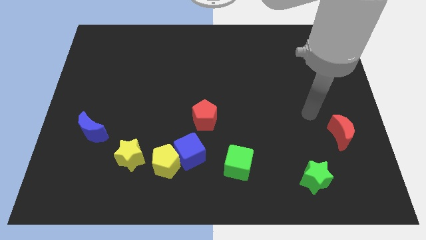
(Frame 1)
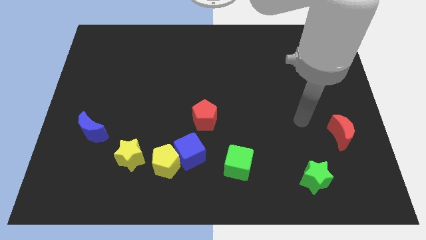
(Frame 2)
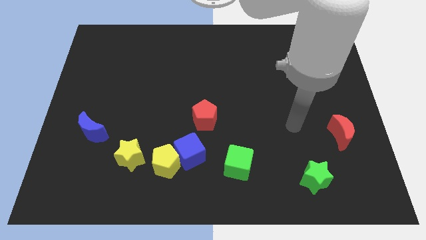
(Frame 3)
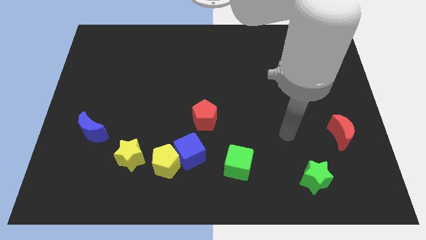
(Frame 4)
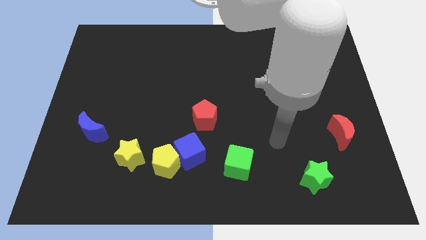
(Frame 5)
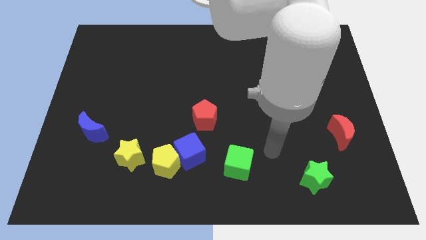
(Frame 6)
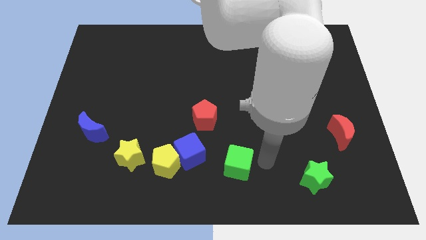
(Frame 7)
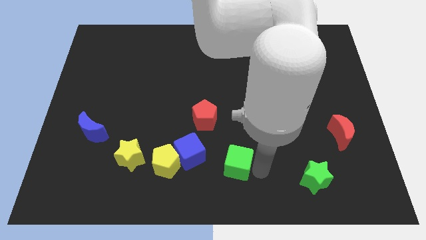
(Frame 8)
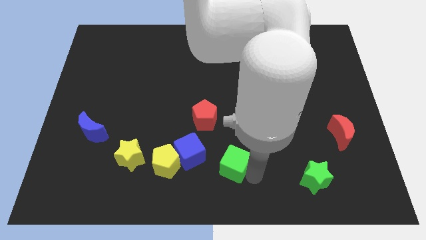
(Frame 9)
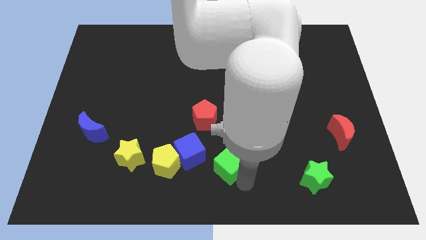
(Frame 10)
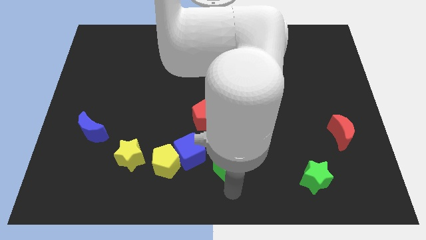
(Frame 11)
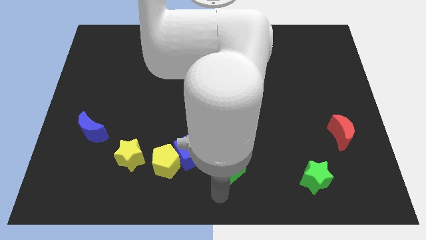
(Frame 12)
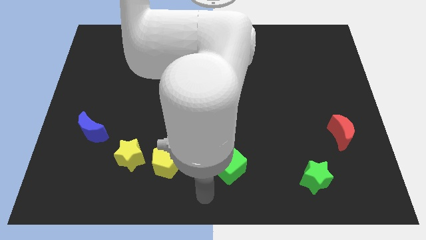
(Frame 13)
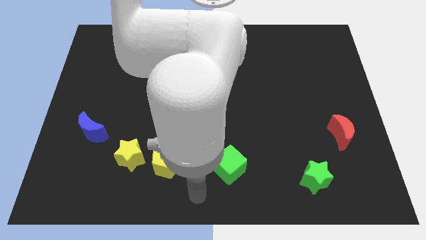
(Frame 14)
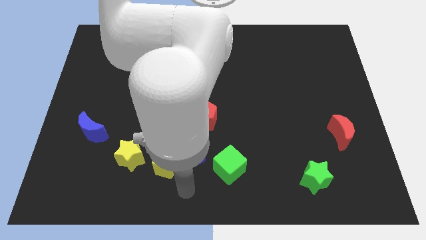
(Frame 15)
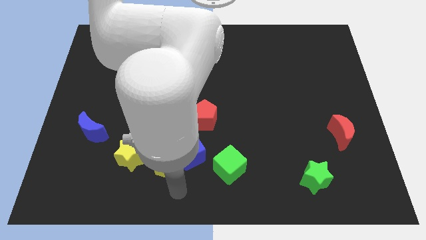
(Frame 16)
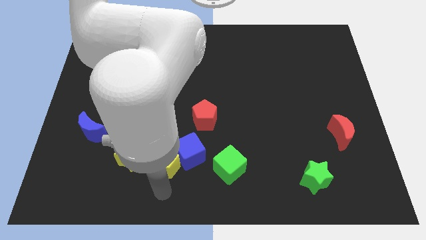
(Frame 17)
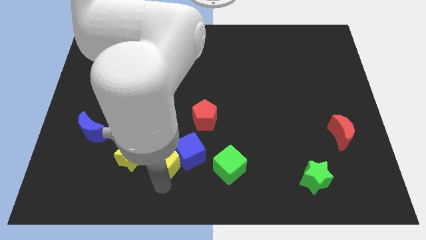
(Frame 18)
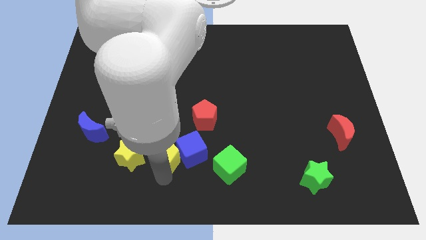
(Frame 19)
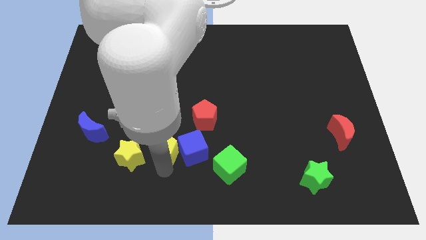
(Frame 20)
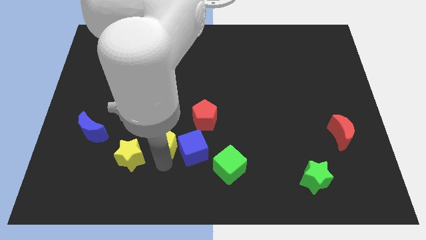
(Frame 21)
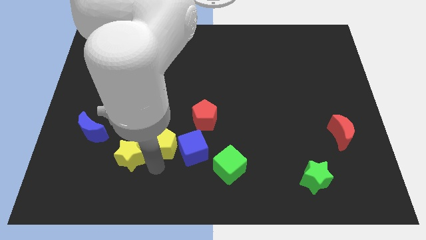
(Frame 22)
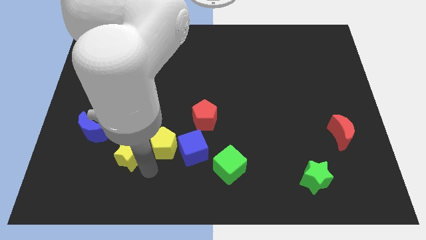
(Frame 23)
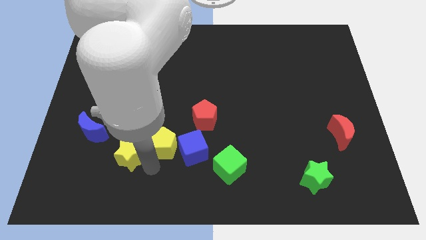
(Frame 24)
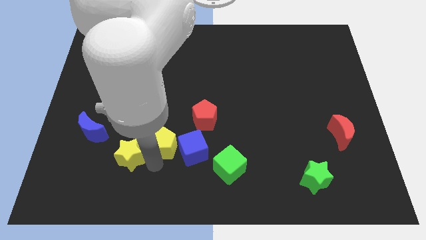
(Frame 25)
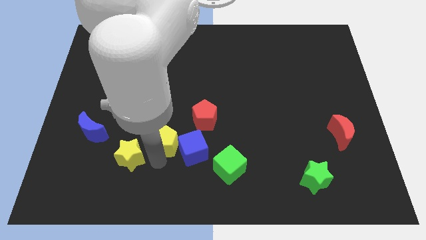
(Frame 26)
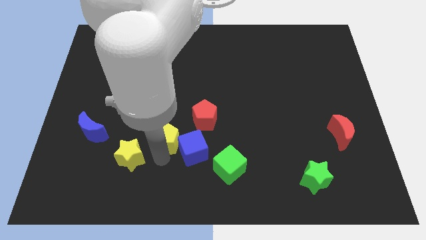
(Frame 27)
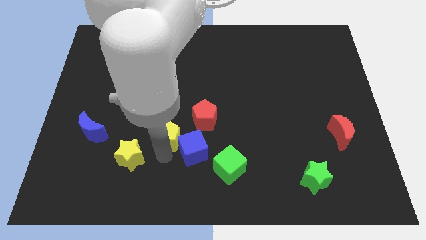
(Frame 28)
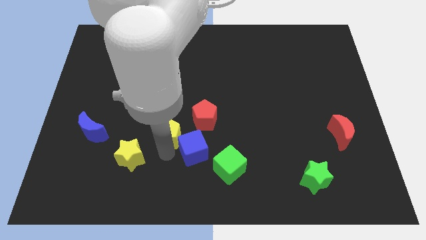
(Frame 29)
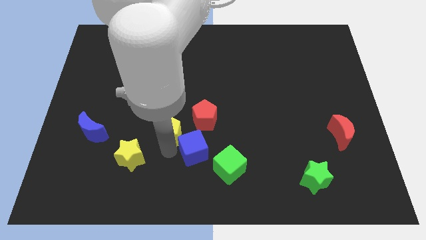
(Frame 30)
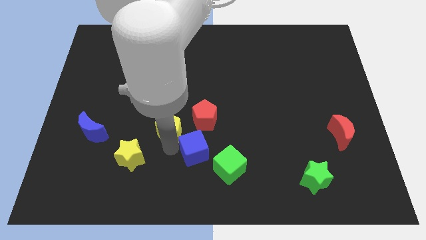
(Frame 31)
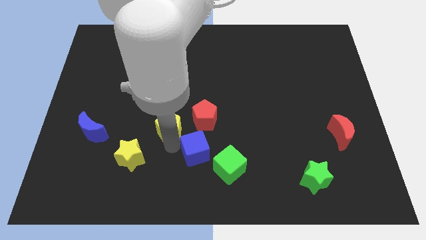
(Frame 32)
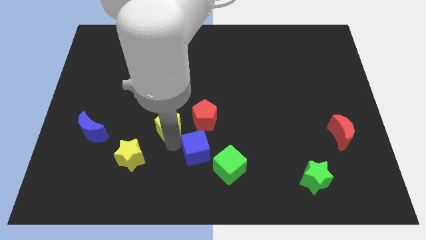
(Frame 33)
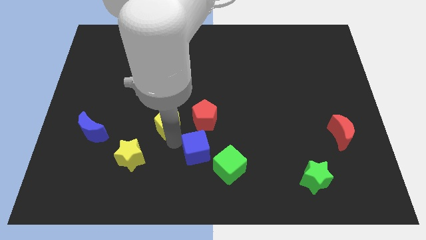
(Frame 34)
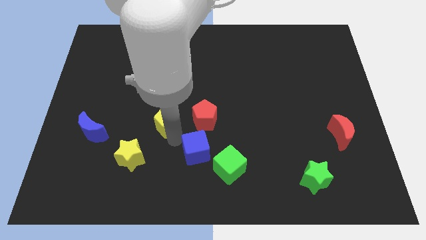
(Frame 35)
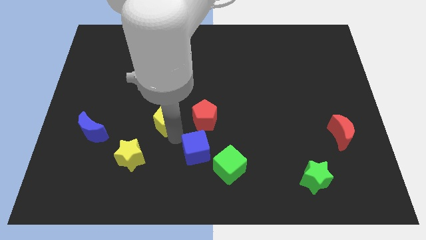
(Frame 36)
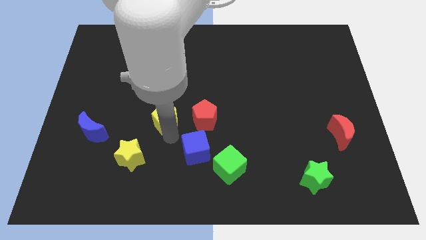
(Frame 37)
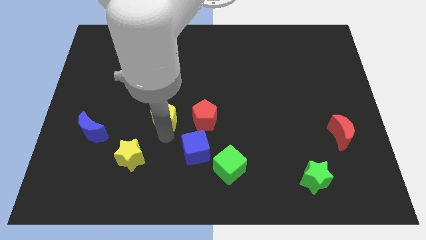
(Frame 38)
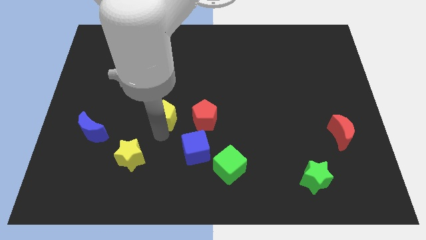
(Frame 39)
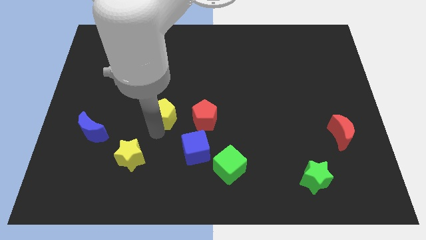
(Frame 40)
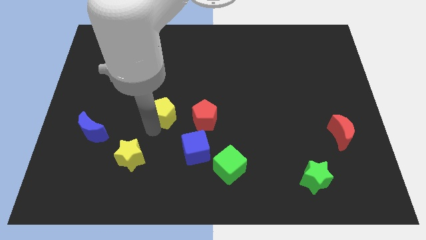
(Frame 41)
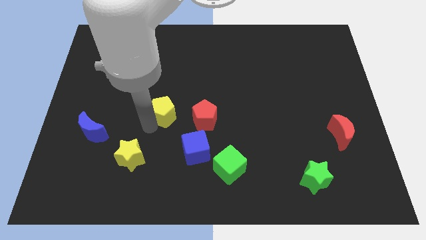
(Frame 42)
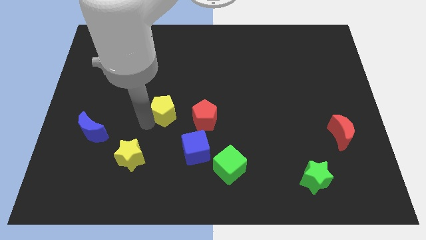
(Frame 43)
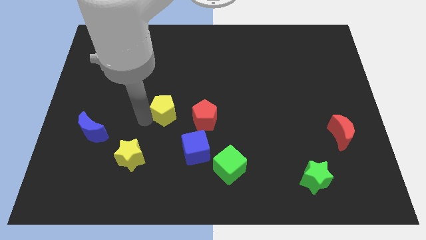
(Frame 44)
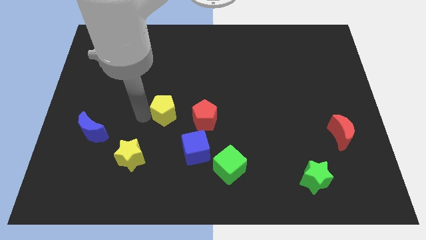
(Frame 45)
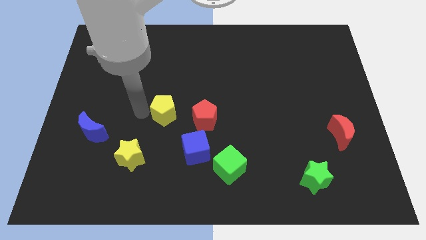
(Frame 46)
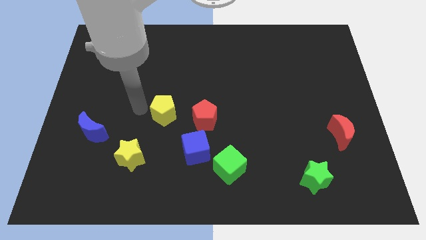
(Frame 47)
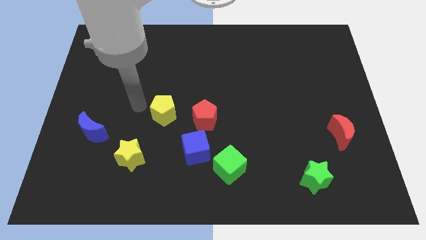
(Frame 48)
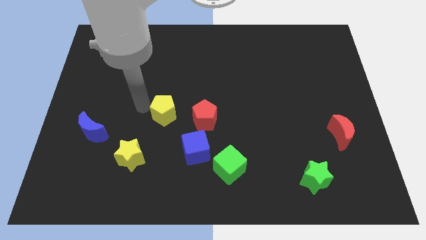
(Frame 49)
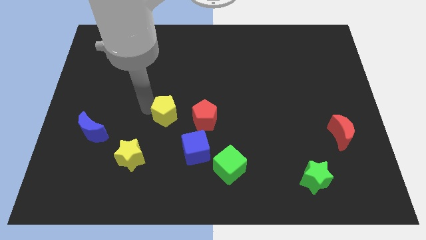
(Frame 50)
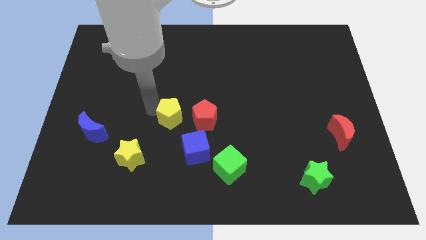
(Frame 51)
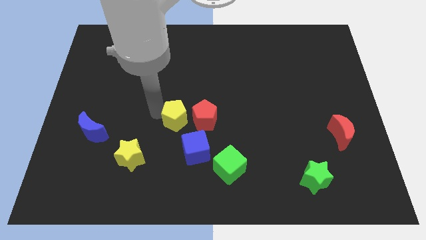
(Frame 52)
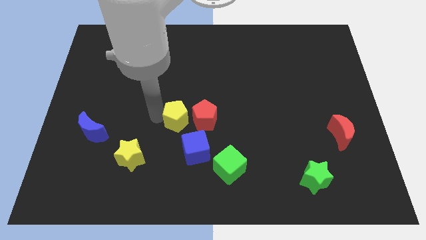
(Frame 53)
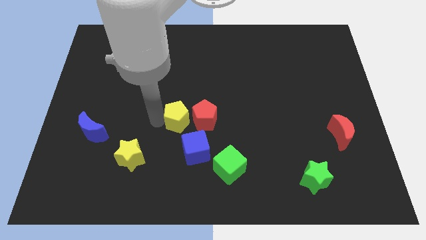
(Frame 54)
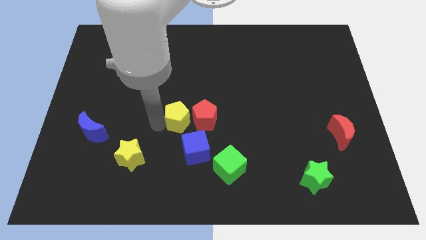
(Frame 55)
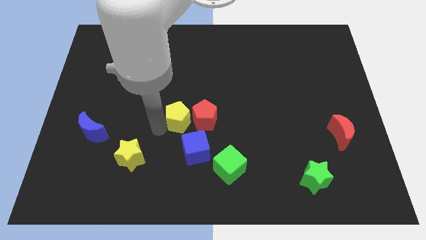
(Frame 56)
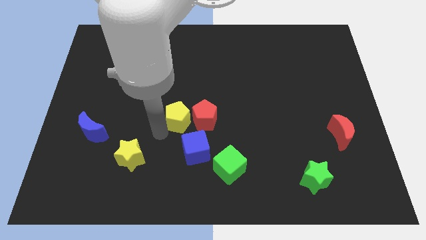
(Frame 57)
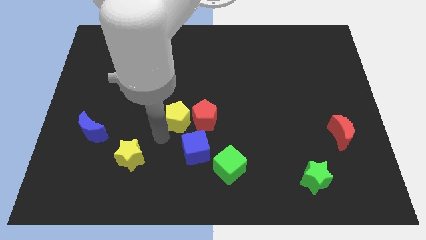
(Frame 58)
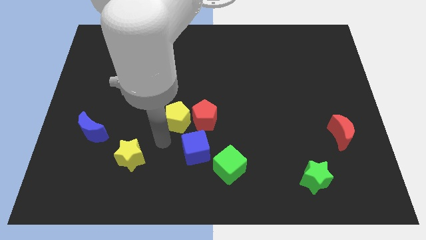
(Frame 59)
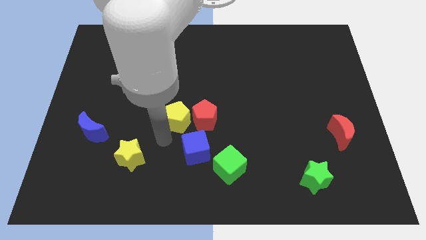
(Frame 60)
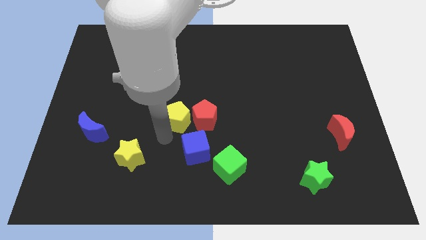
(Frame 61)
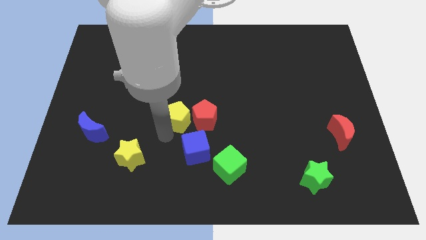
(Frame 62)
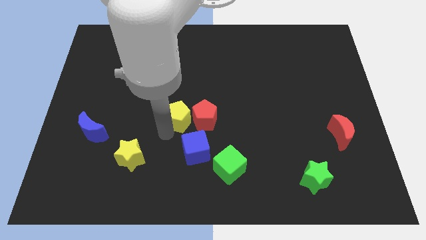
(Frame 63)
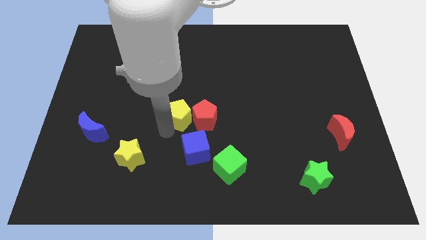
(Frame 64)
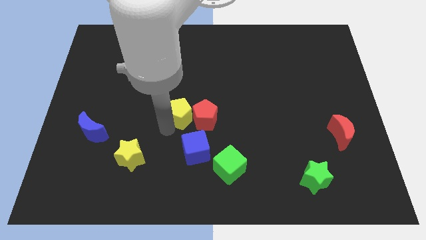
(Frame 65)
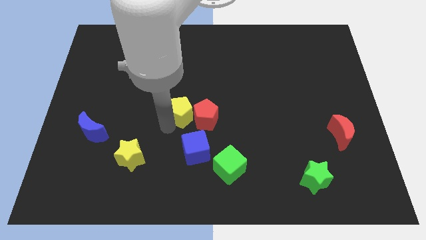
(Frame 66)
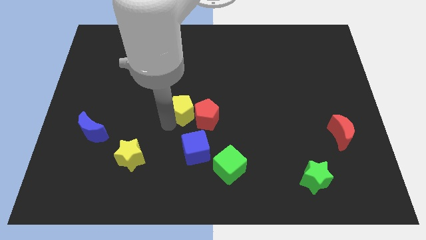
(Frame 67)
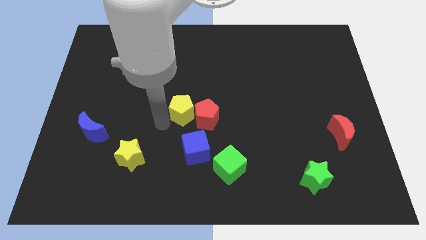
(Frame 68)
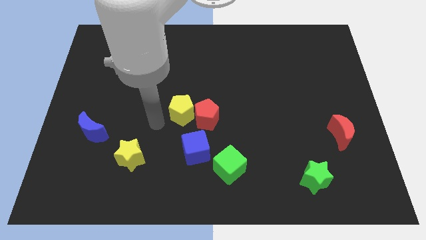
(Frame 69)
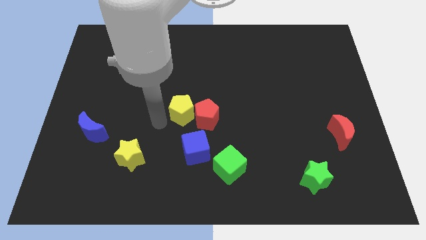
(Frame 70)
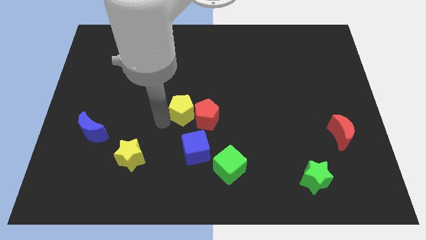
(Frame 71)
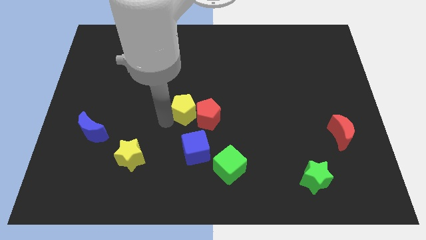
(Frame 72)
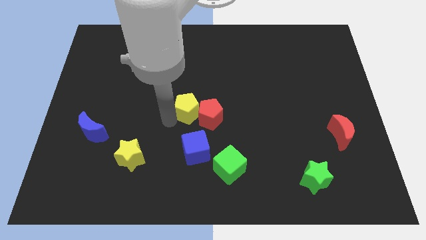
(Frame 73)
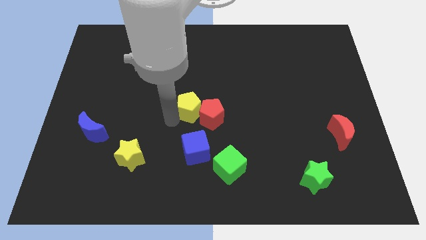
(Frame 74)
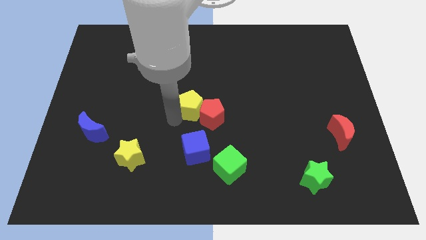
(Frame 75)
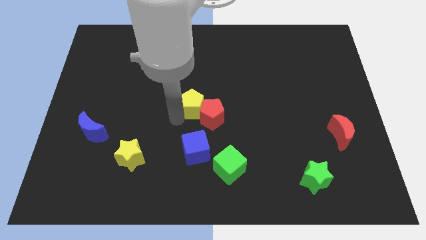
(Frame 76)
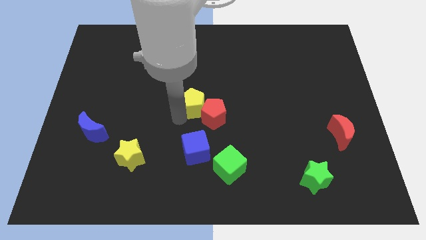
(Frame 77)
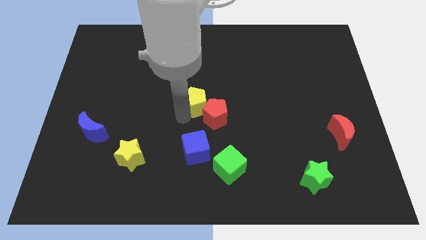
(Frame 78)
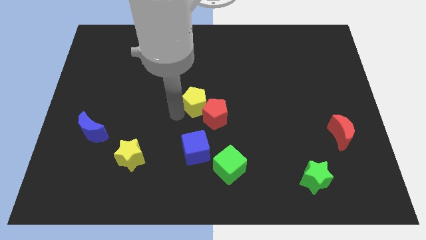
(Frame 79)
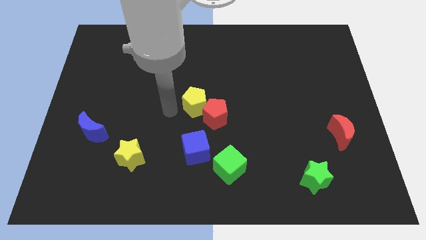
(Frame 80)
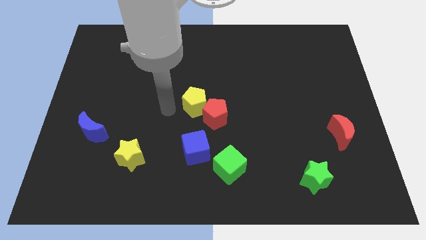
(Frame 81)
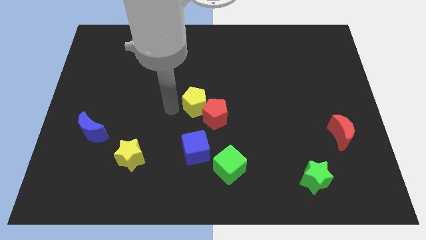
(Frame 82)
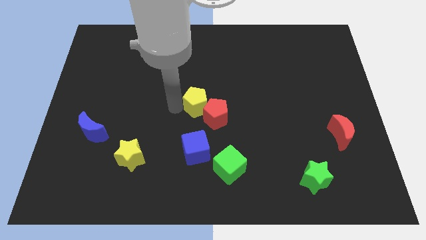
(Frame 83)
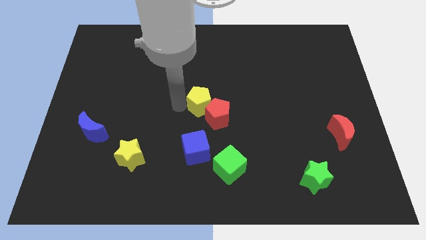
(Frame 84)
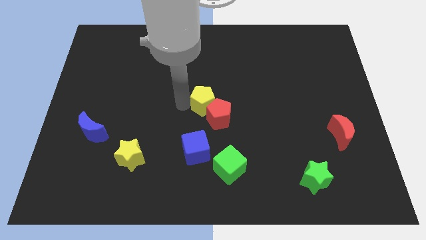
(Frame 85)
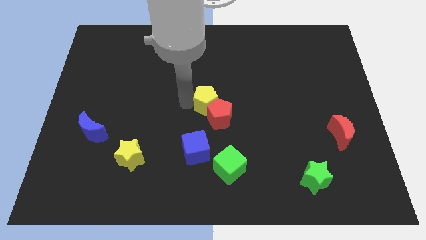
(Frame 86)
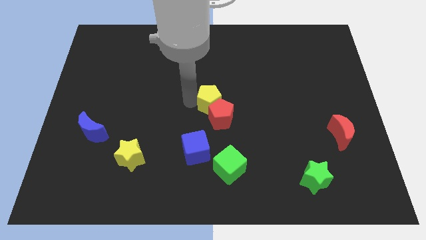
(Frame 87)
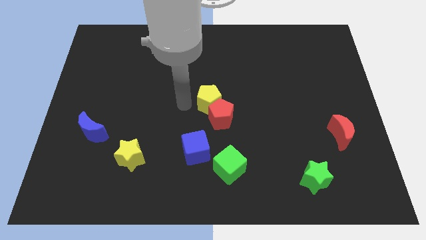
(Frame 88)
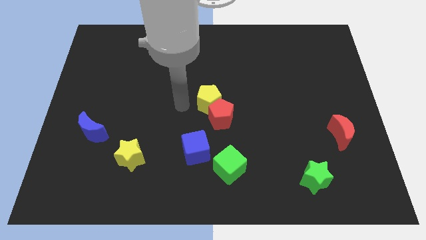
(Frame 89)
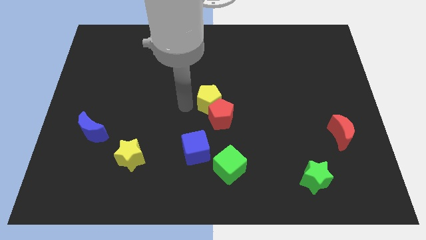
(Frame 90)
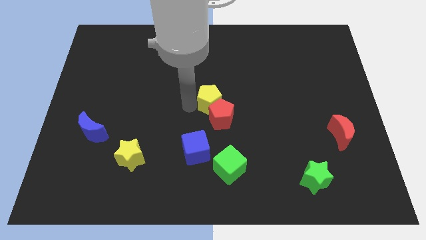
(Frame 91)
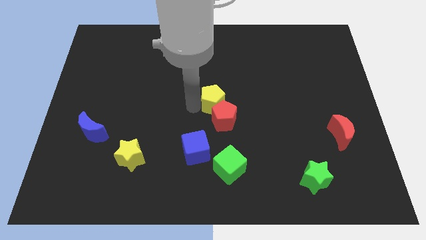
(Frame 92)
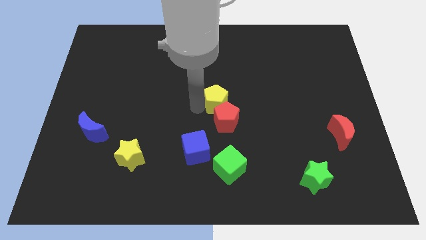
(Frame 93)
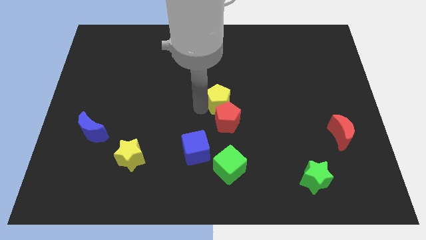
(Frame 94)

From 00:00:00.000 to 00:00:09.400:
slide the yellow pentagon diagonally up and to the right of the red pentagon
